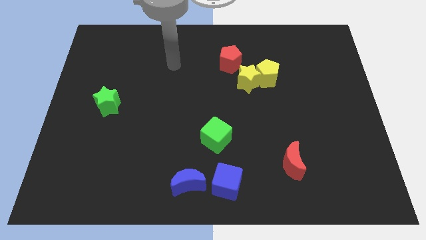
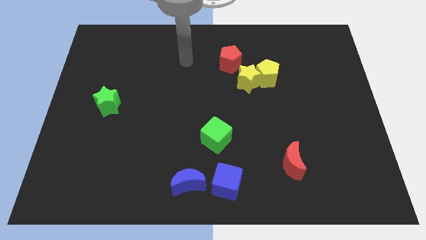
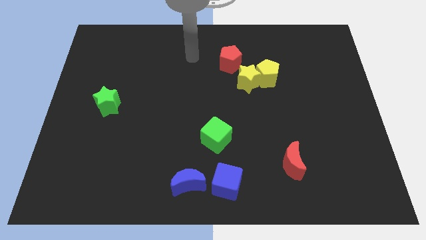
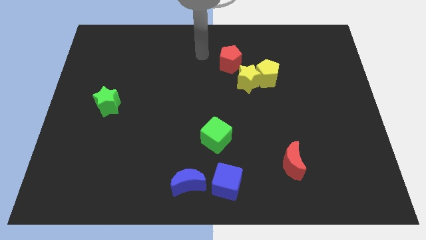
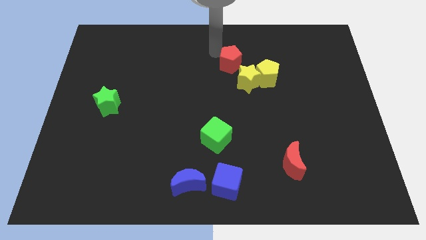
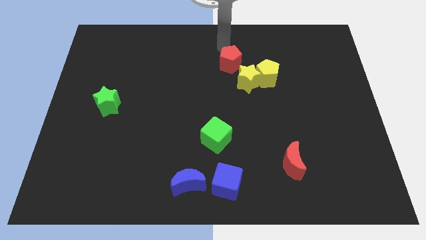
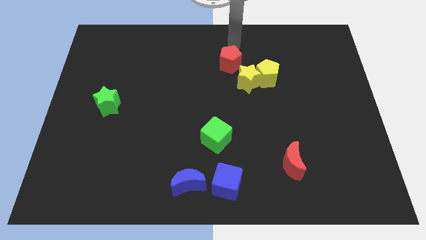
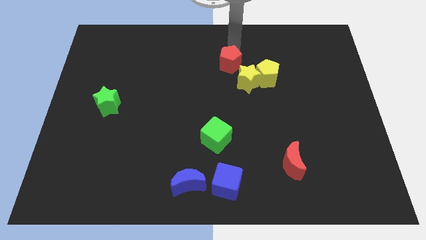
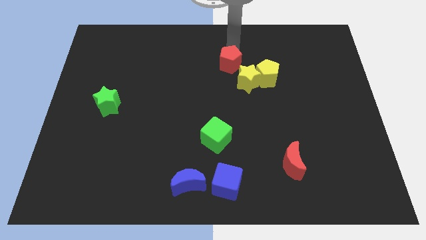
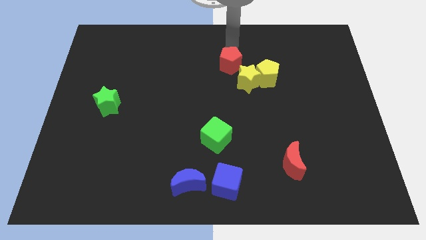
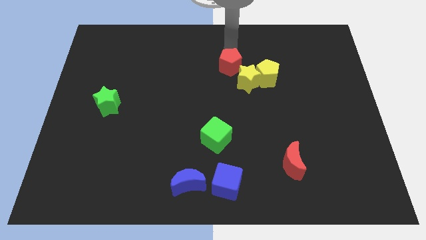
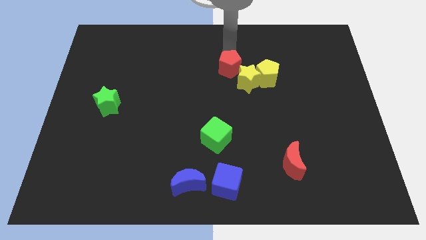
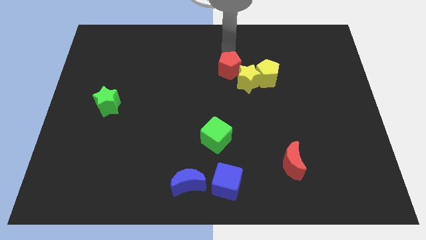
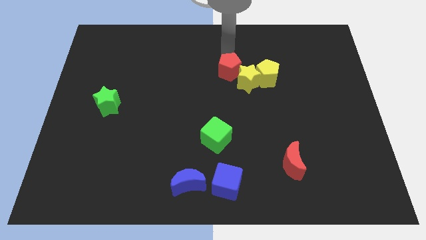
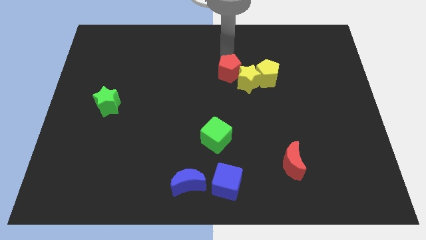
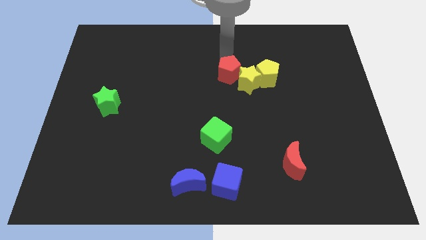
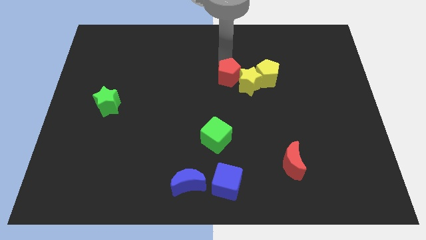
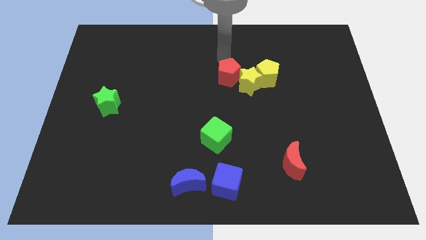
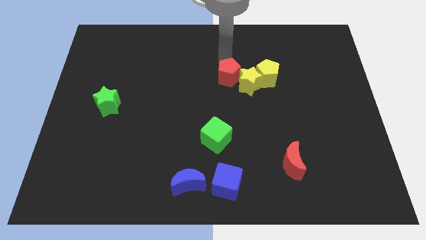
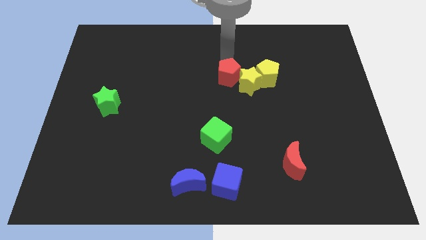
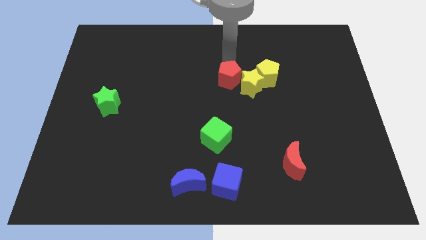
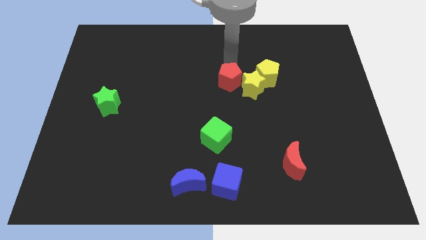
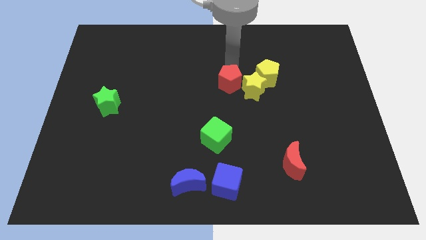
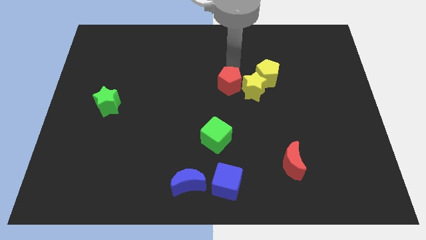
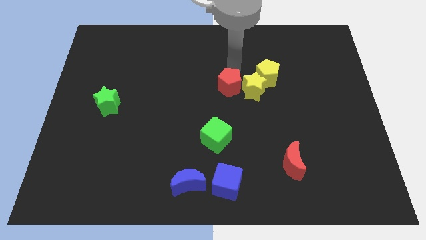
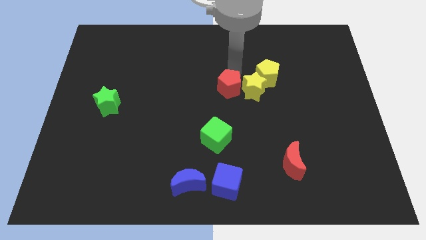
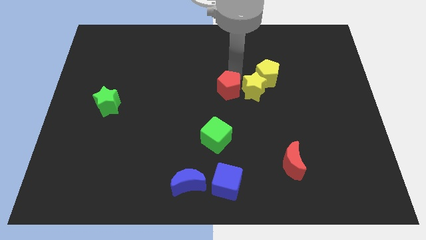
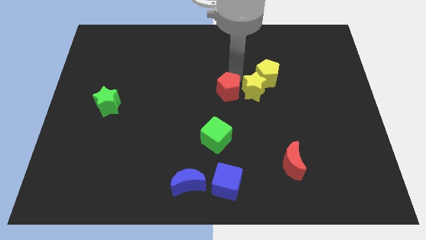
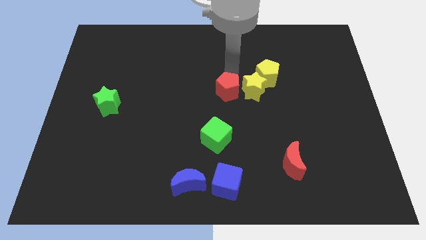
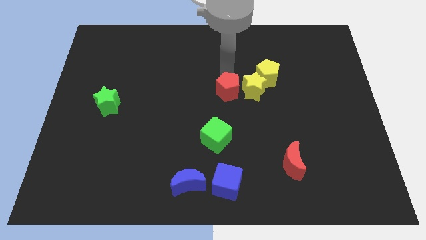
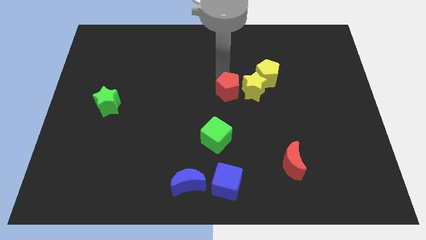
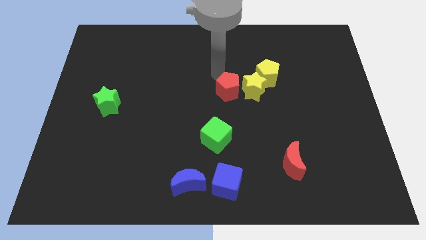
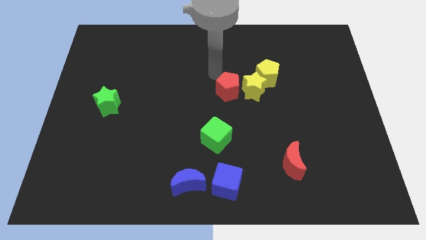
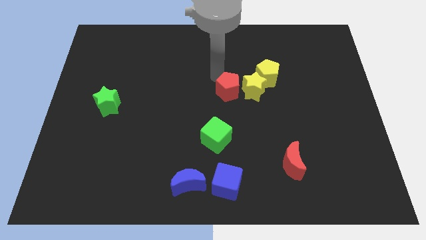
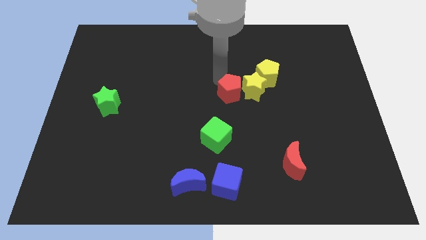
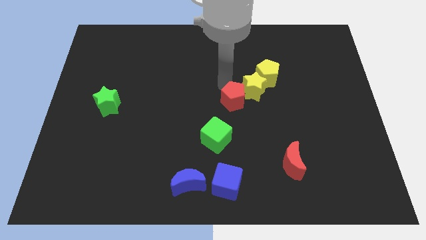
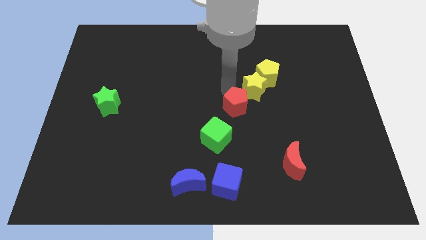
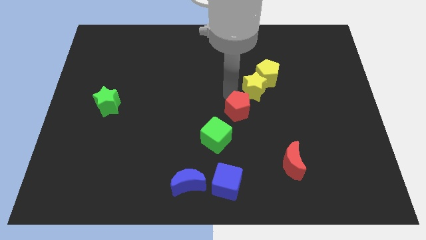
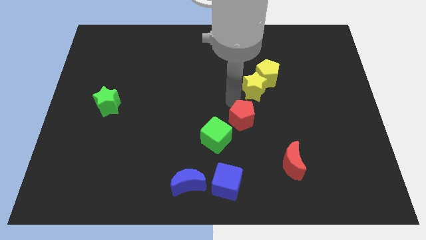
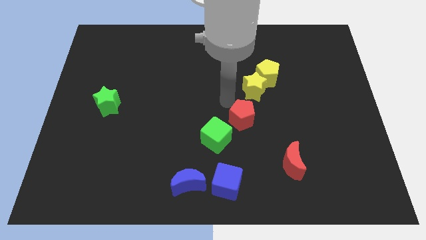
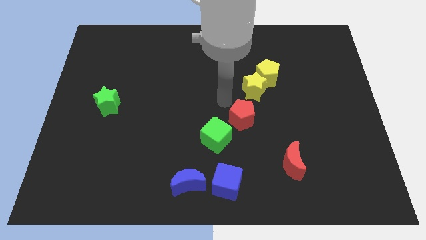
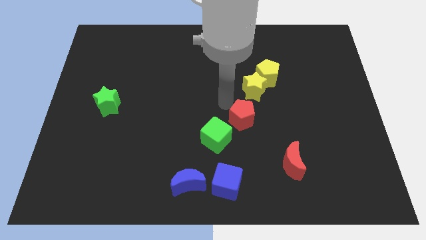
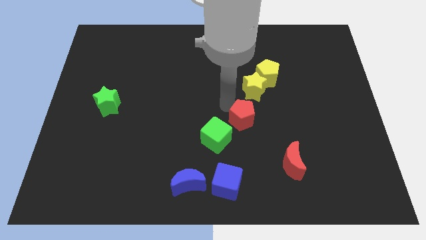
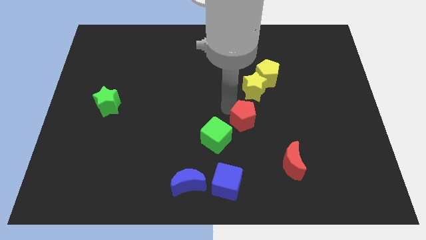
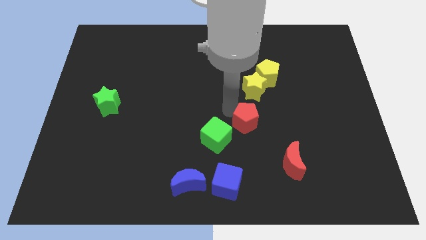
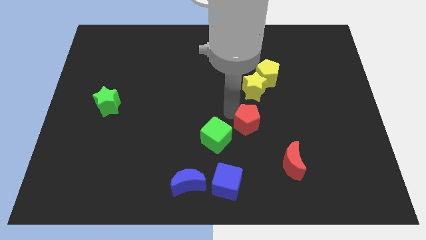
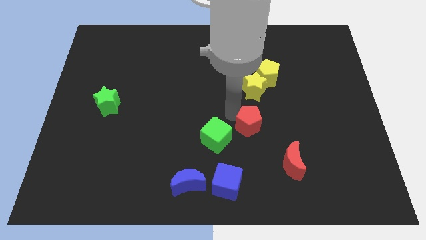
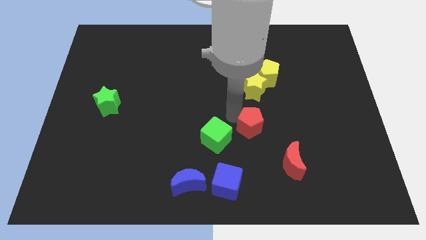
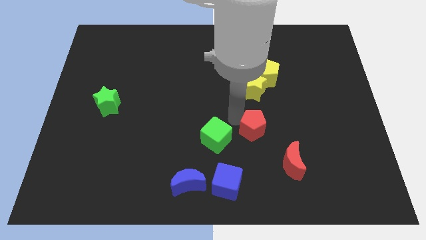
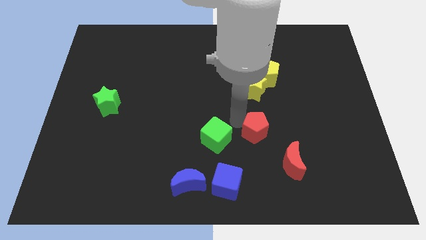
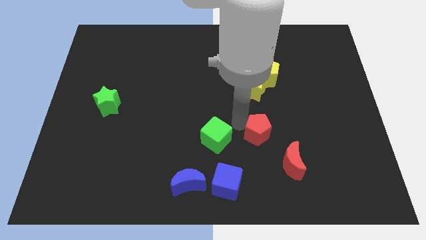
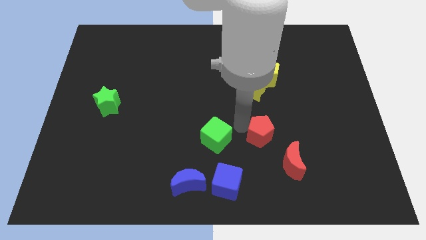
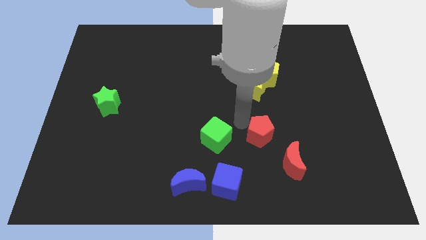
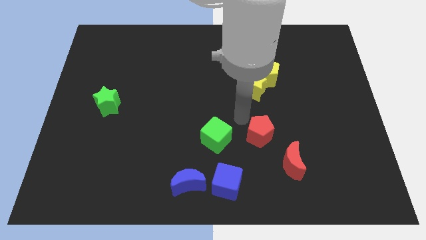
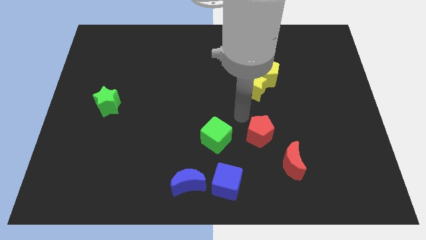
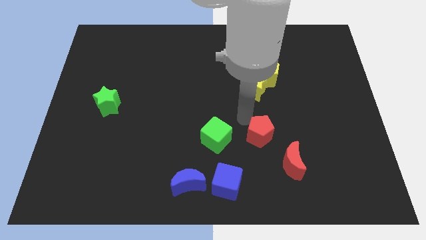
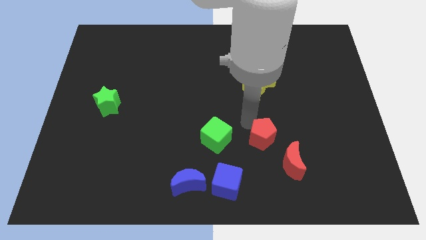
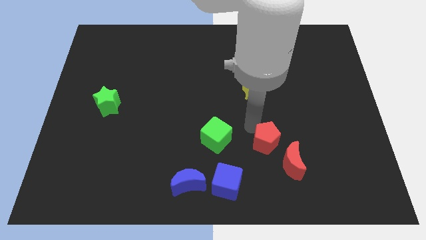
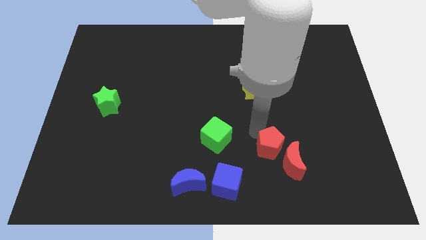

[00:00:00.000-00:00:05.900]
put the red pentagon to the red moon

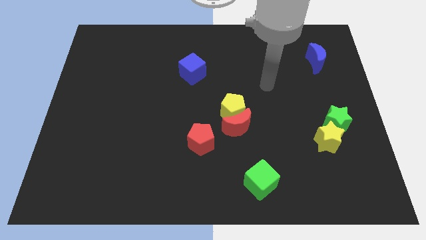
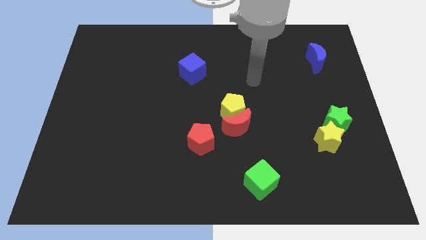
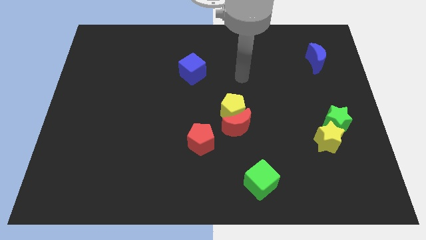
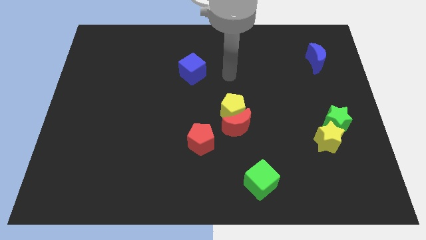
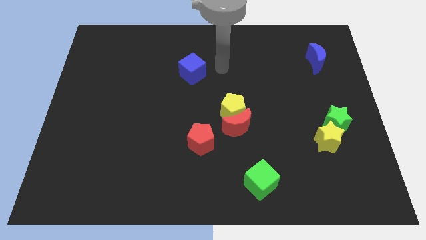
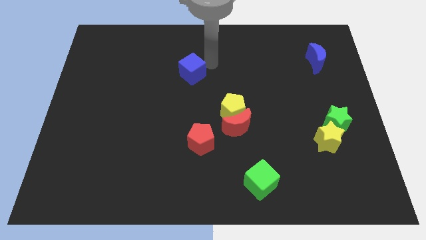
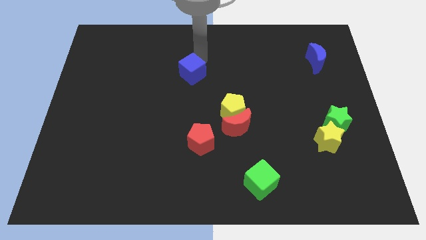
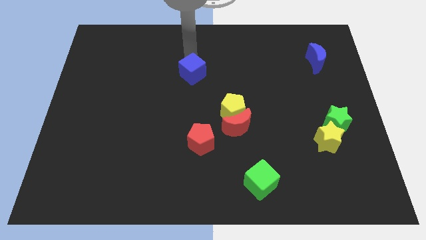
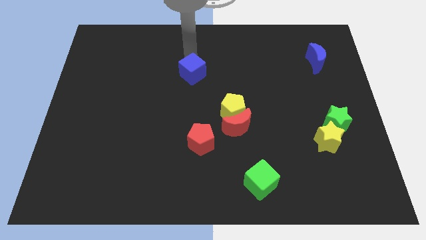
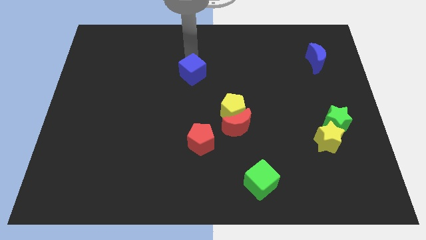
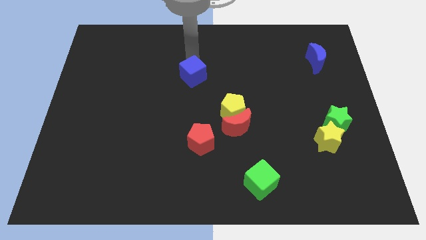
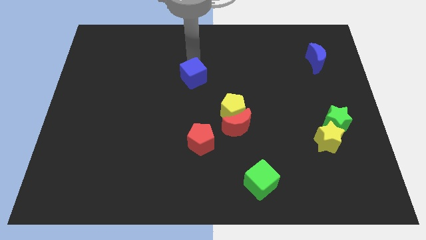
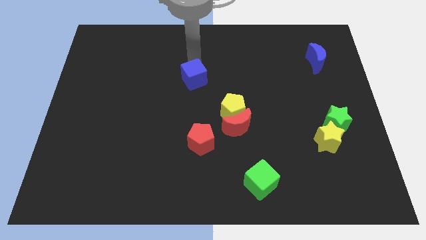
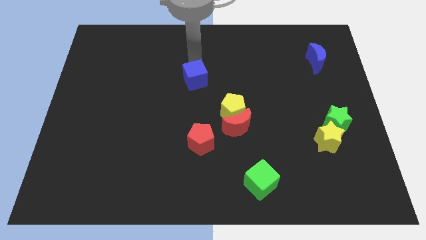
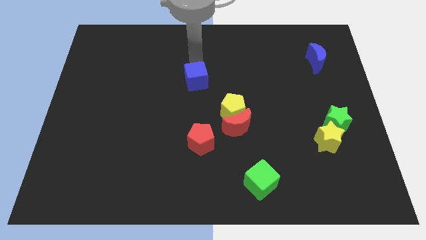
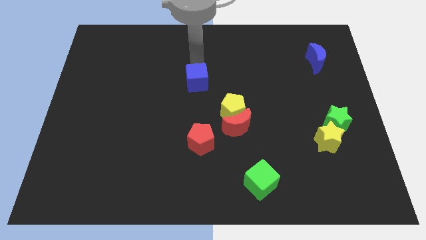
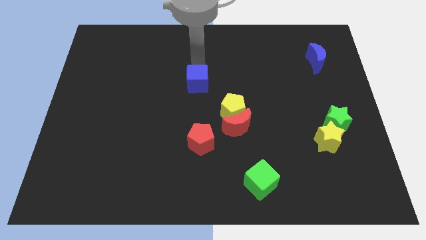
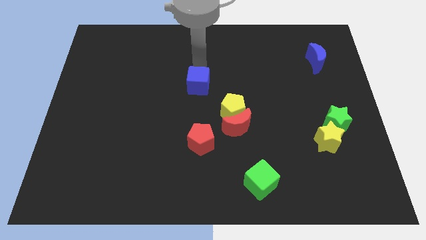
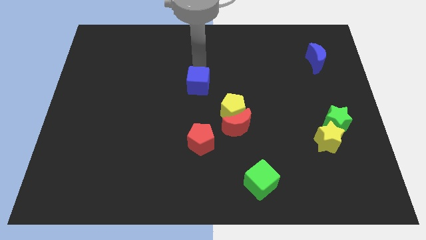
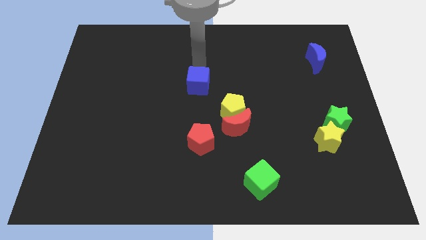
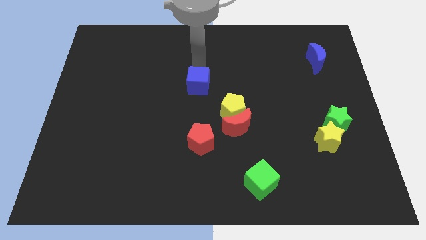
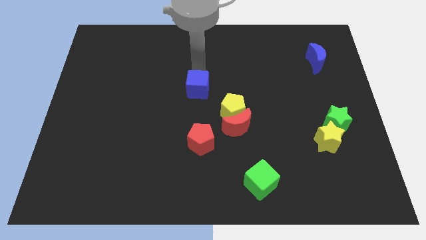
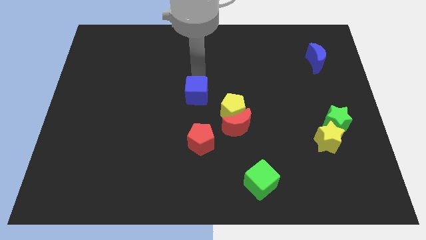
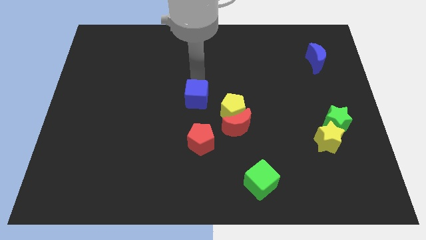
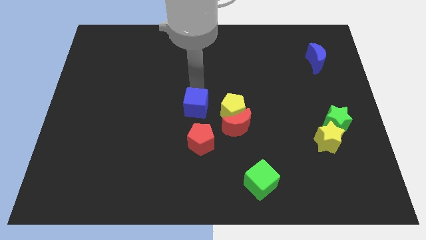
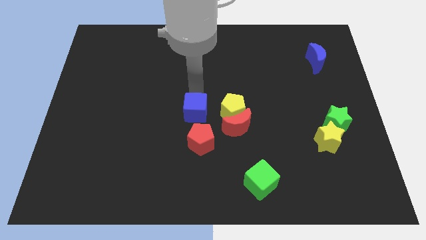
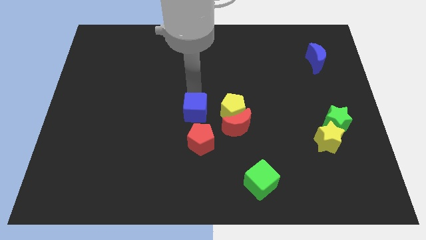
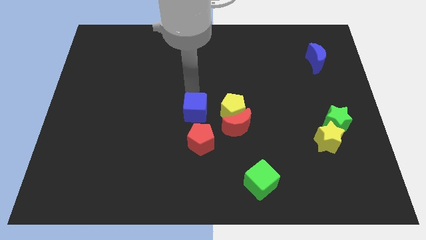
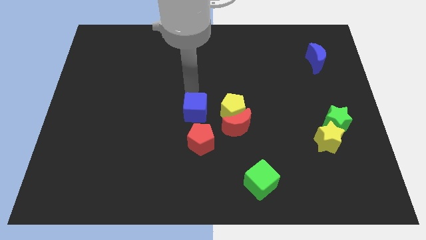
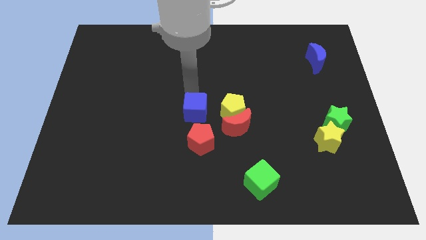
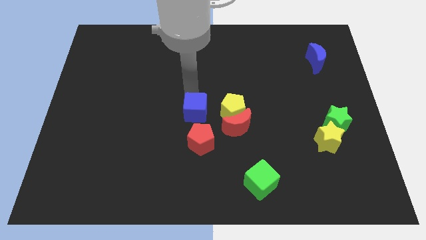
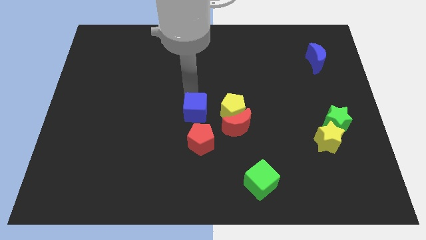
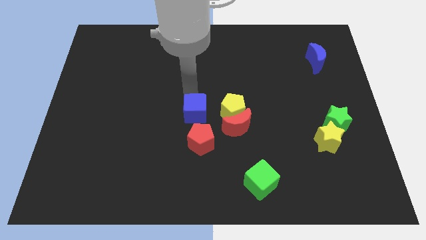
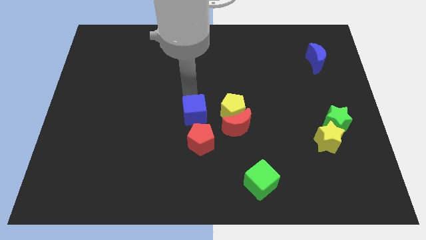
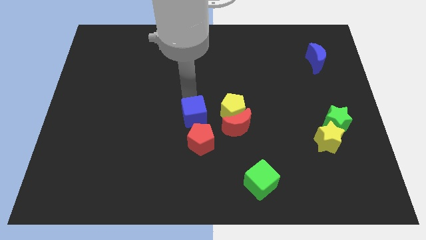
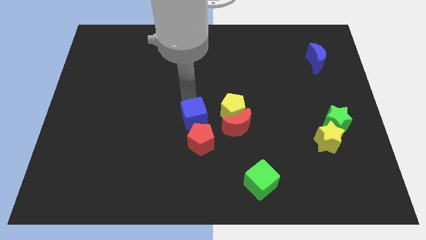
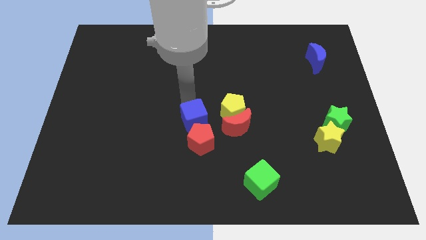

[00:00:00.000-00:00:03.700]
put the blue cube next to the red pentagon
